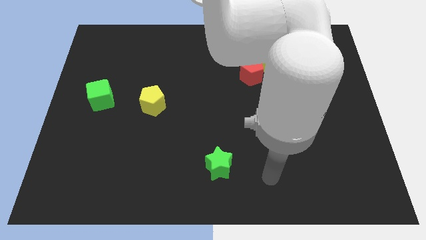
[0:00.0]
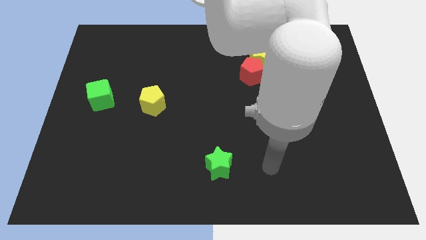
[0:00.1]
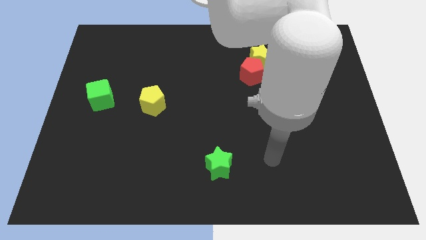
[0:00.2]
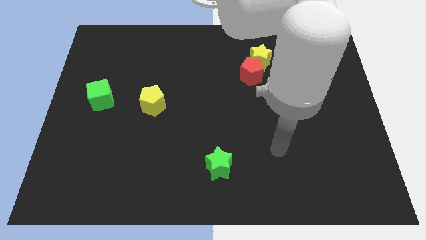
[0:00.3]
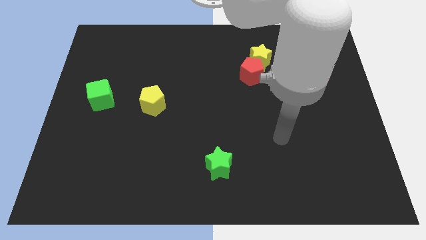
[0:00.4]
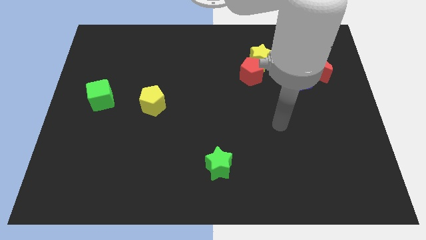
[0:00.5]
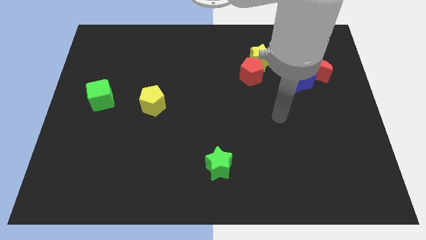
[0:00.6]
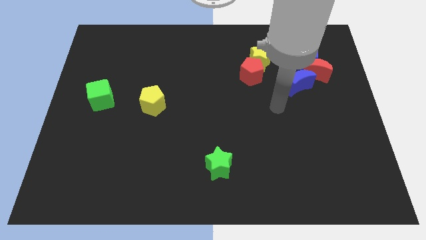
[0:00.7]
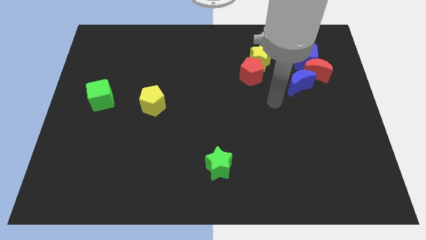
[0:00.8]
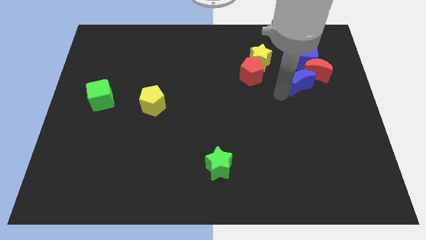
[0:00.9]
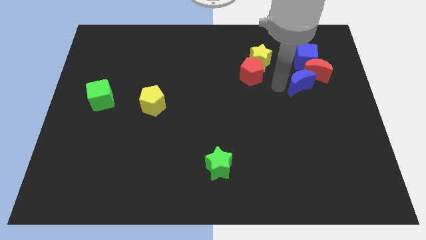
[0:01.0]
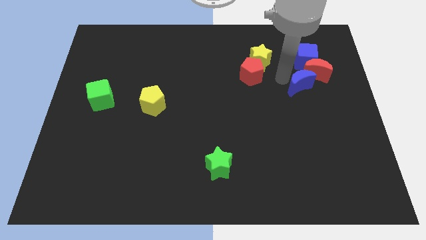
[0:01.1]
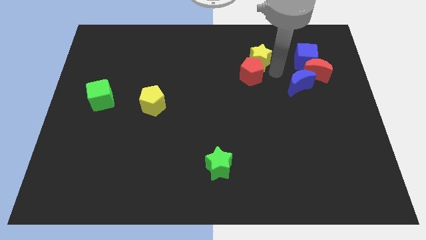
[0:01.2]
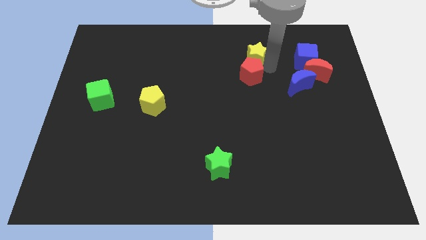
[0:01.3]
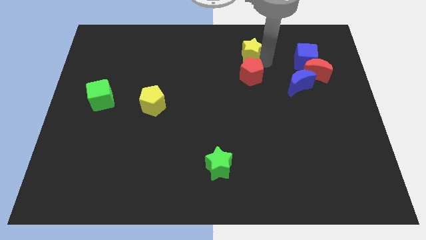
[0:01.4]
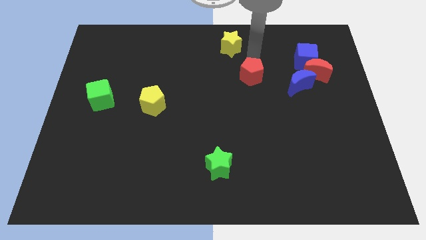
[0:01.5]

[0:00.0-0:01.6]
pull the red pentagon apart from the yellow star

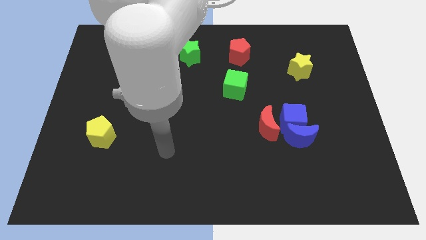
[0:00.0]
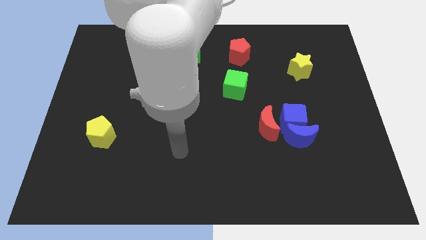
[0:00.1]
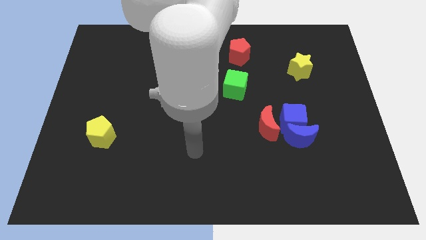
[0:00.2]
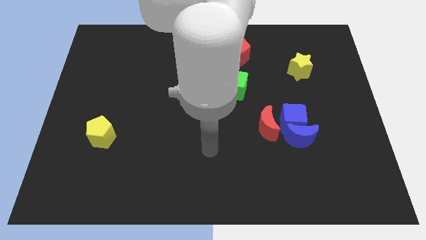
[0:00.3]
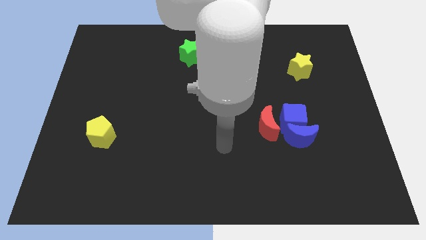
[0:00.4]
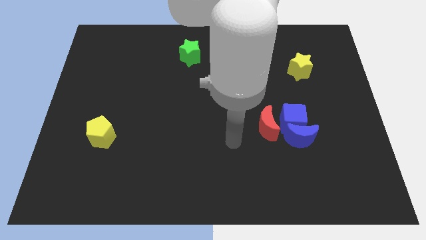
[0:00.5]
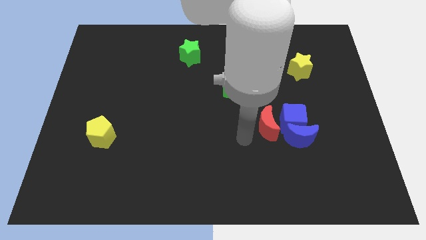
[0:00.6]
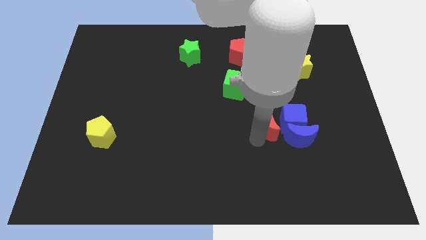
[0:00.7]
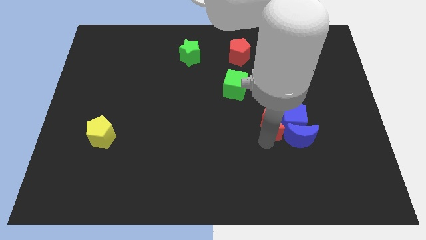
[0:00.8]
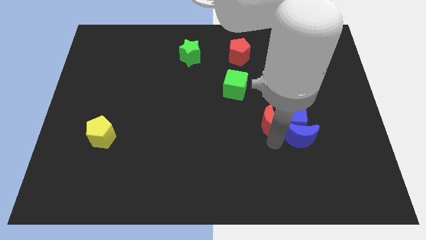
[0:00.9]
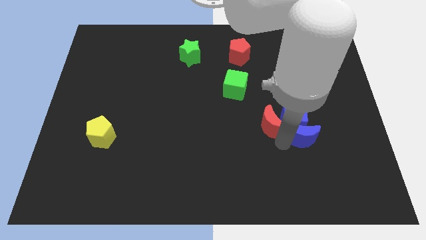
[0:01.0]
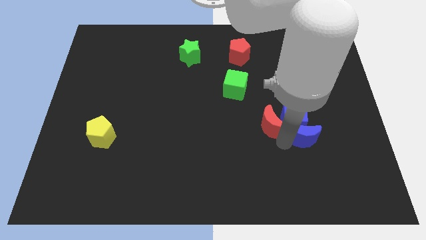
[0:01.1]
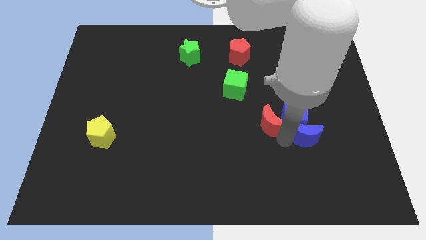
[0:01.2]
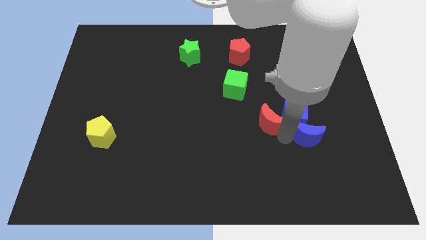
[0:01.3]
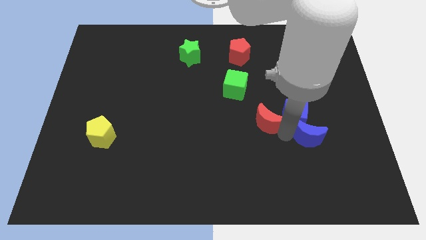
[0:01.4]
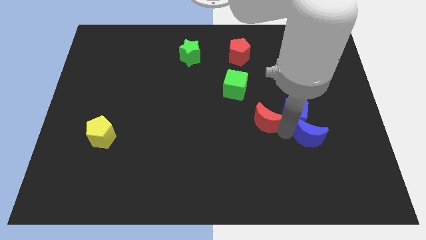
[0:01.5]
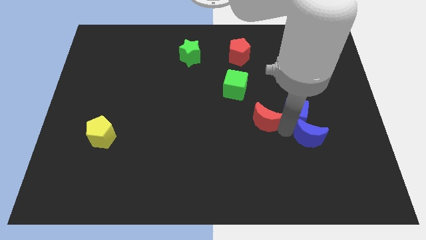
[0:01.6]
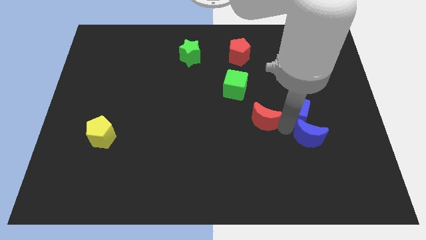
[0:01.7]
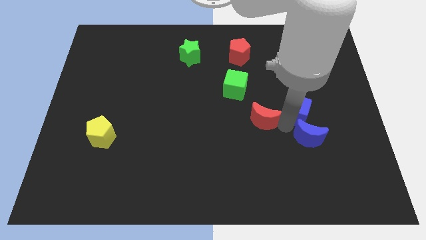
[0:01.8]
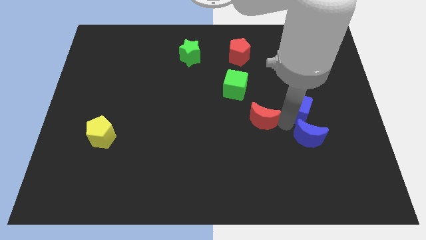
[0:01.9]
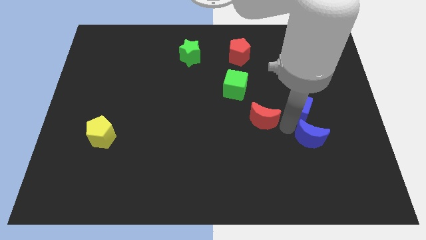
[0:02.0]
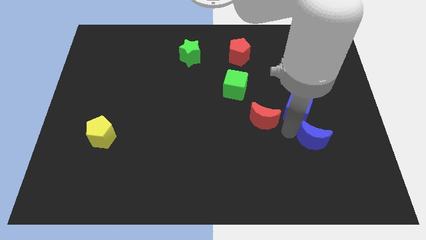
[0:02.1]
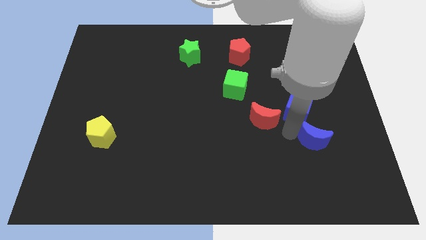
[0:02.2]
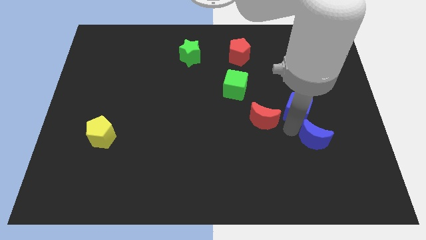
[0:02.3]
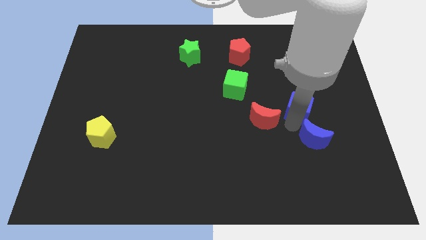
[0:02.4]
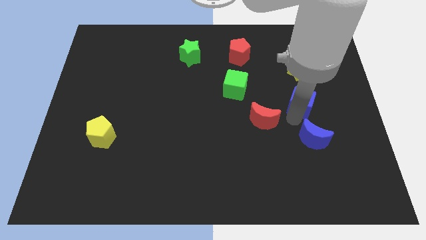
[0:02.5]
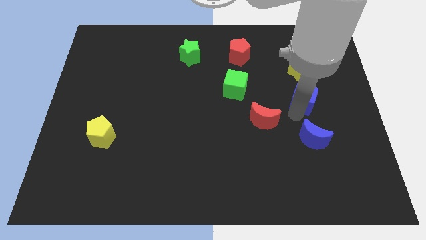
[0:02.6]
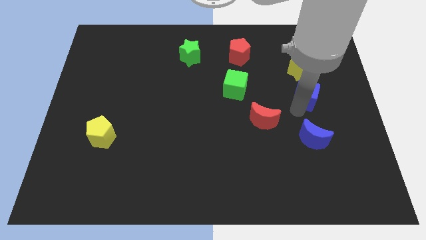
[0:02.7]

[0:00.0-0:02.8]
separate the blue cube from the blue moon and red moon

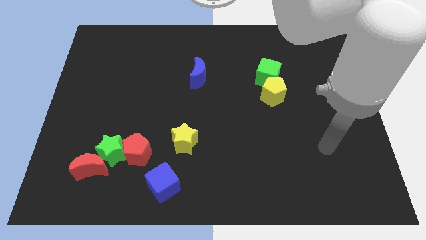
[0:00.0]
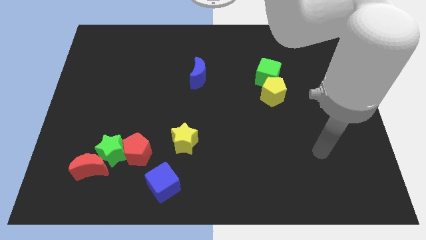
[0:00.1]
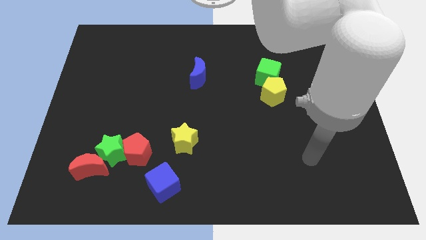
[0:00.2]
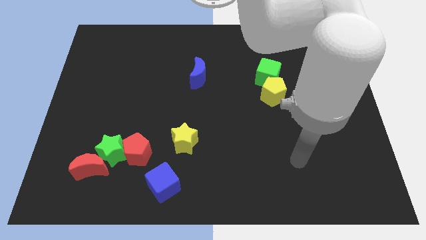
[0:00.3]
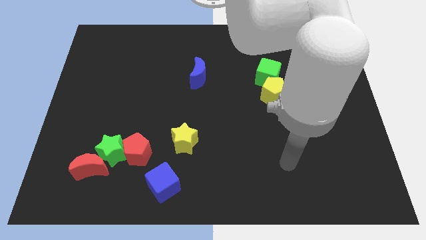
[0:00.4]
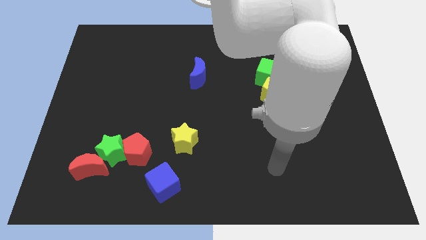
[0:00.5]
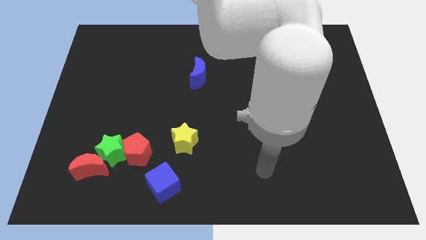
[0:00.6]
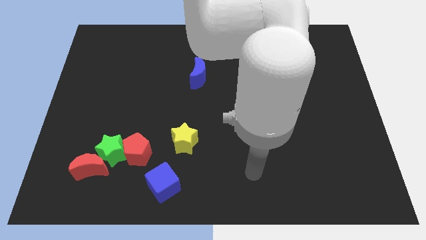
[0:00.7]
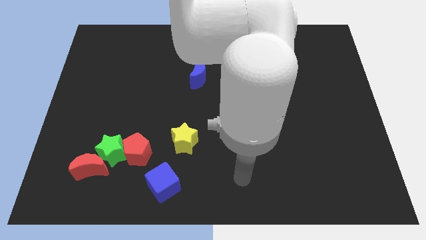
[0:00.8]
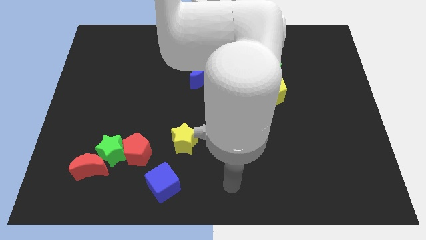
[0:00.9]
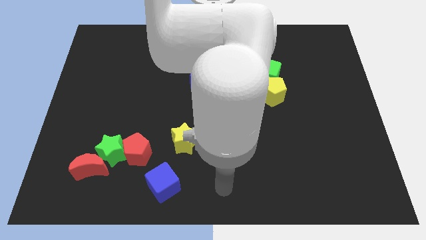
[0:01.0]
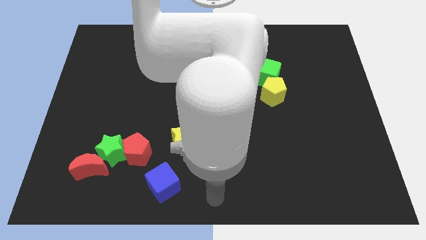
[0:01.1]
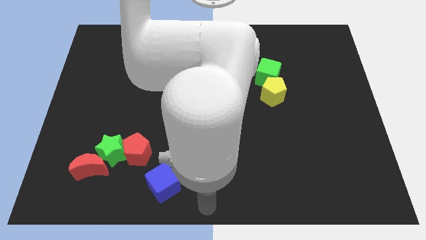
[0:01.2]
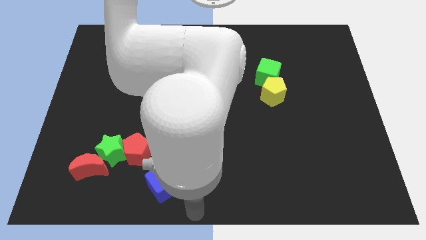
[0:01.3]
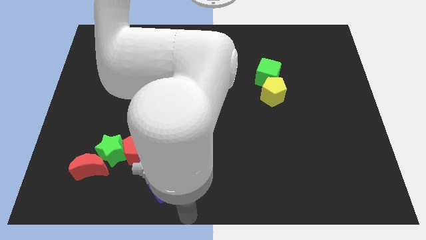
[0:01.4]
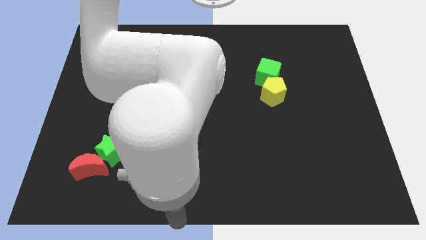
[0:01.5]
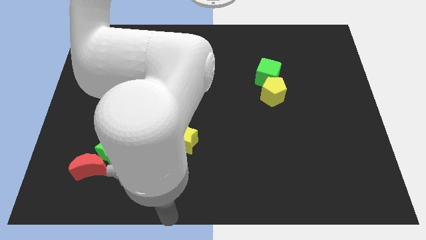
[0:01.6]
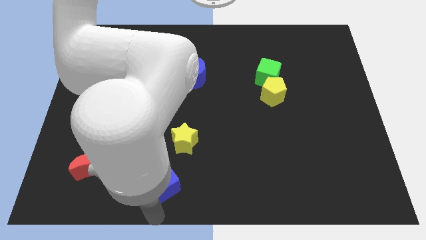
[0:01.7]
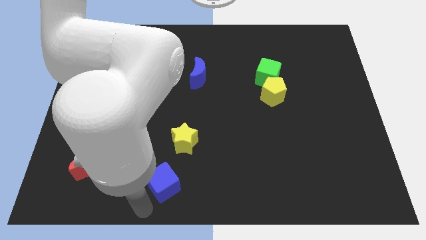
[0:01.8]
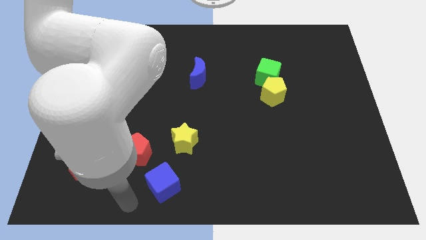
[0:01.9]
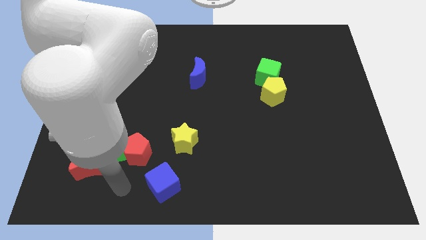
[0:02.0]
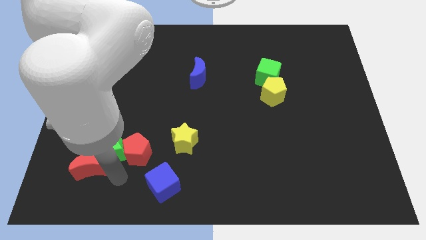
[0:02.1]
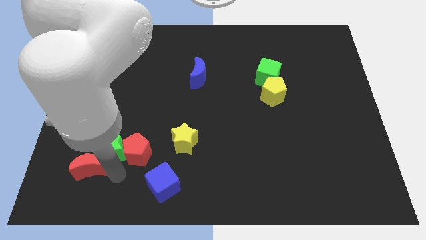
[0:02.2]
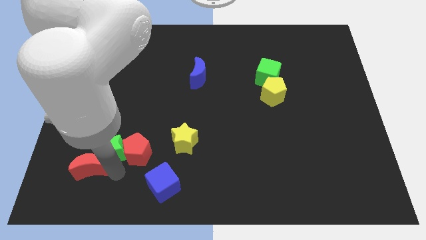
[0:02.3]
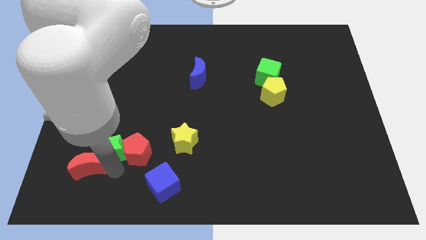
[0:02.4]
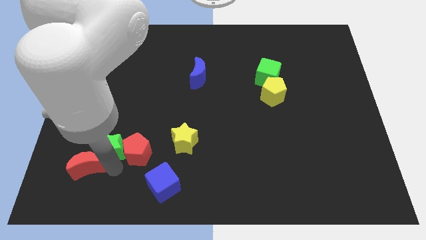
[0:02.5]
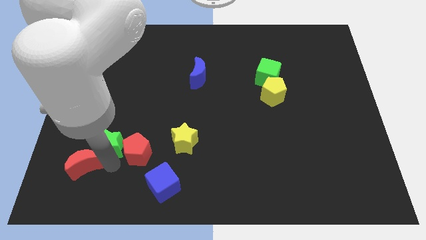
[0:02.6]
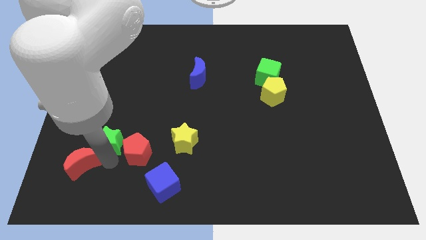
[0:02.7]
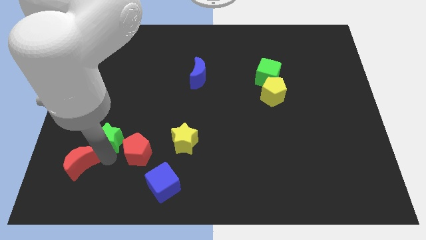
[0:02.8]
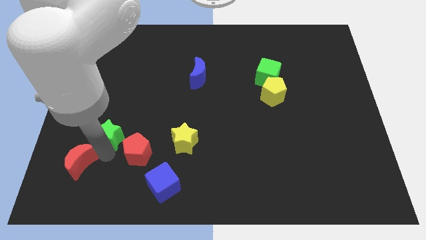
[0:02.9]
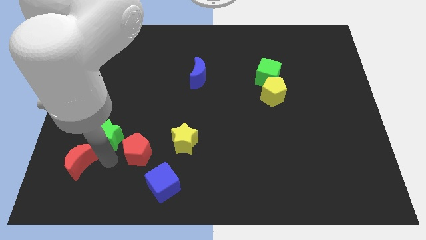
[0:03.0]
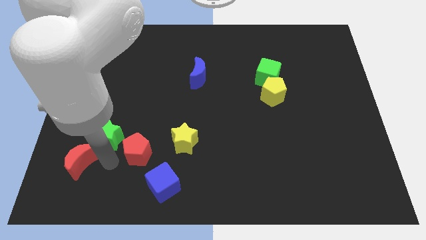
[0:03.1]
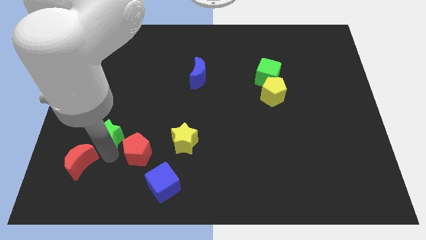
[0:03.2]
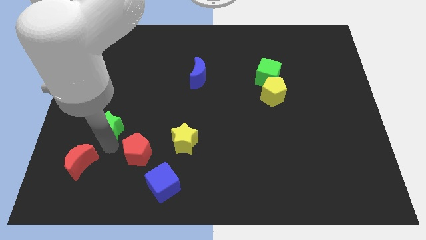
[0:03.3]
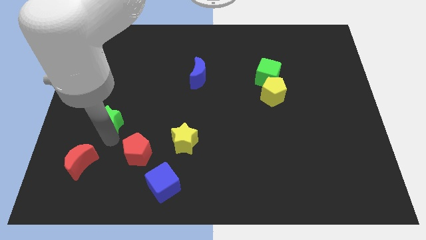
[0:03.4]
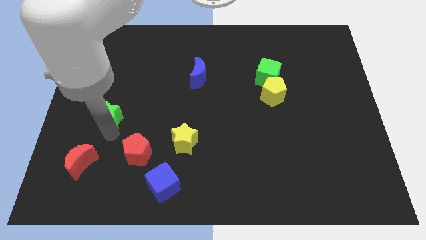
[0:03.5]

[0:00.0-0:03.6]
move the green star away from the red pentagon and red moon

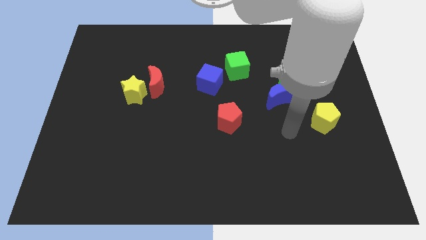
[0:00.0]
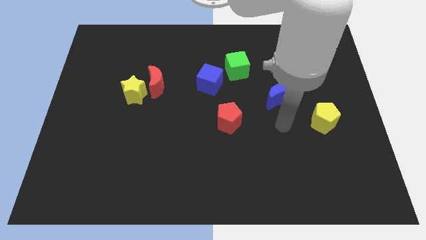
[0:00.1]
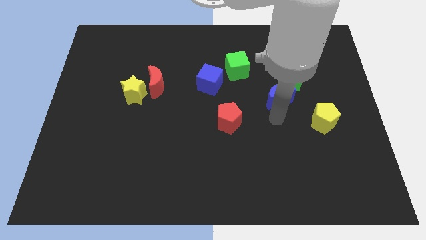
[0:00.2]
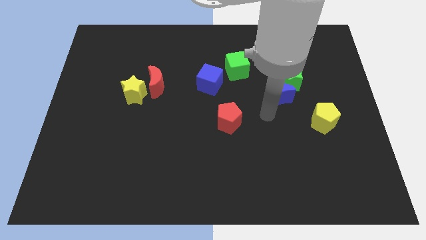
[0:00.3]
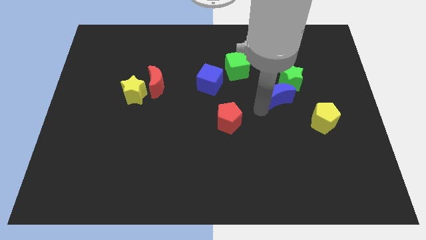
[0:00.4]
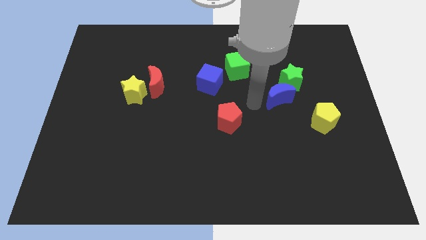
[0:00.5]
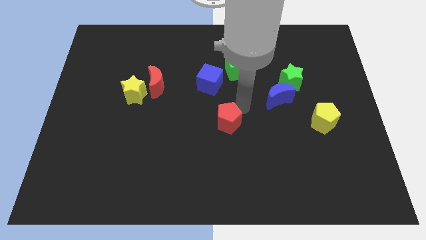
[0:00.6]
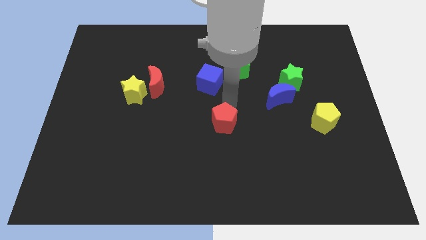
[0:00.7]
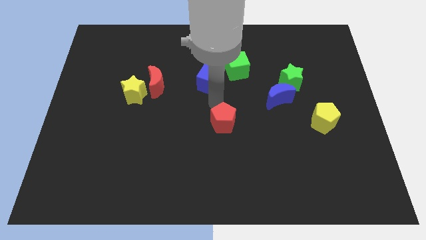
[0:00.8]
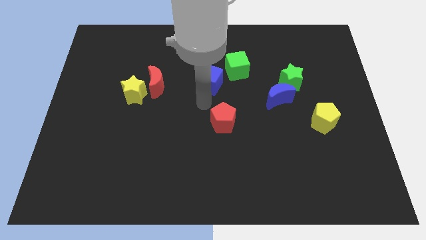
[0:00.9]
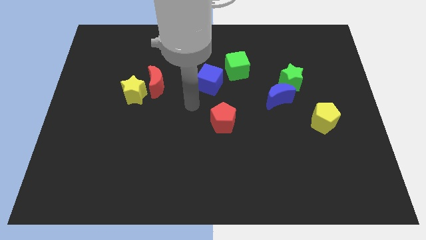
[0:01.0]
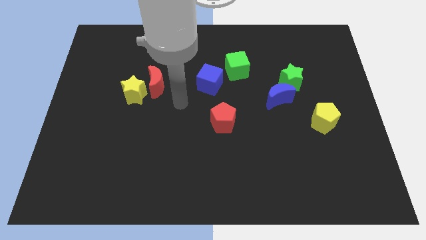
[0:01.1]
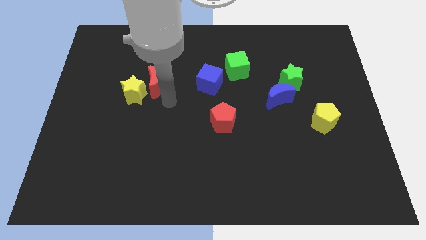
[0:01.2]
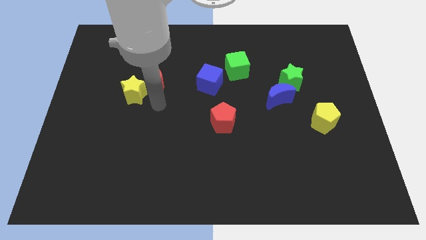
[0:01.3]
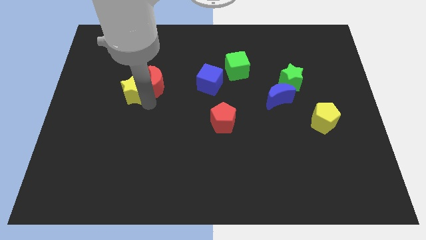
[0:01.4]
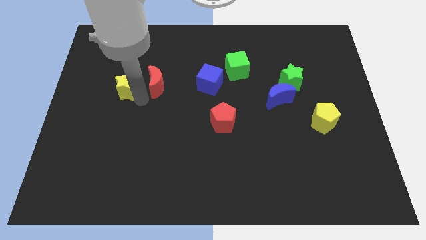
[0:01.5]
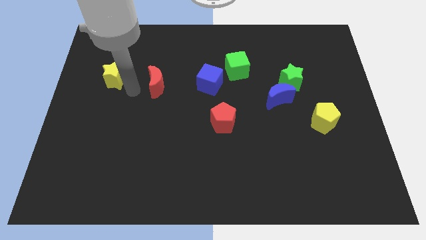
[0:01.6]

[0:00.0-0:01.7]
separate the red moon from the yellow star
